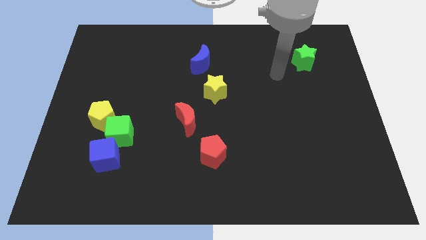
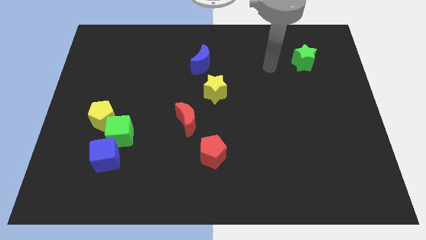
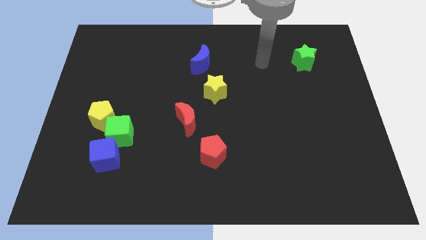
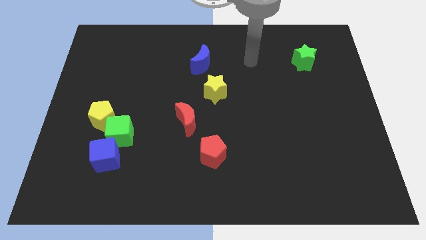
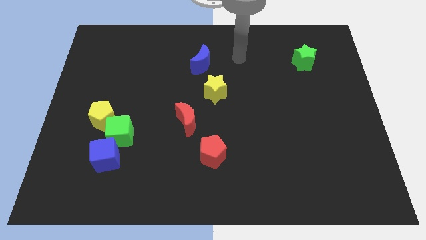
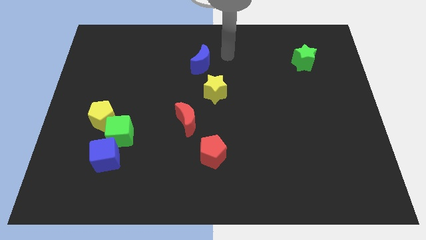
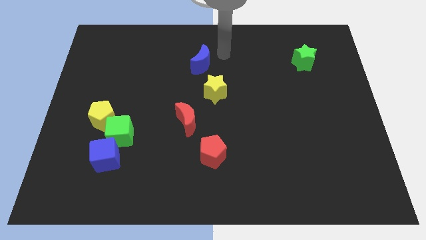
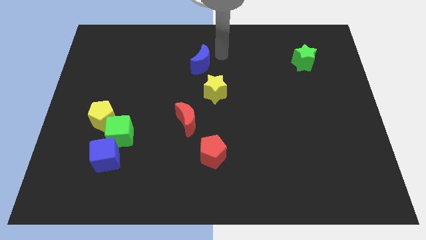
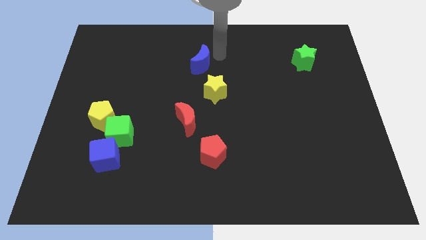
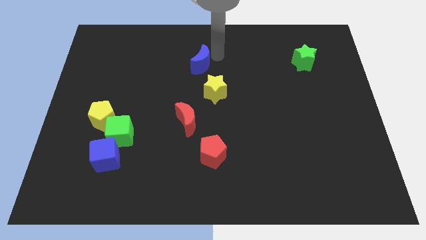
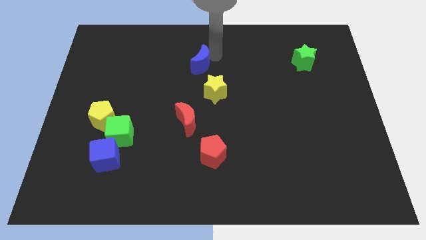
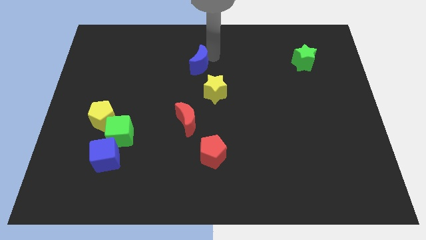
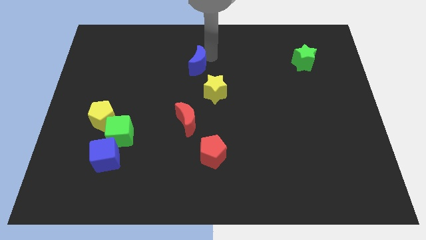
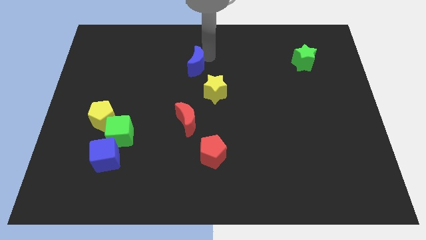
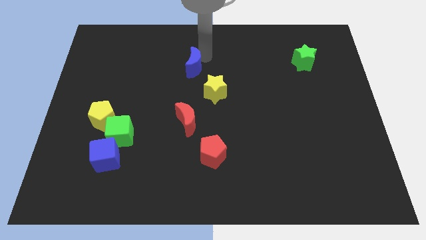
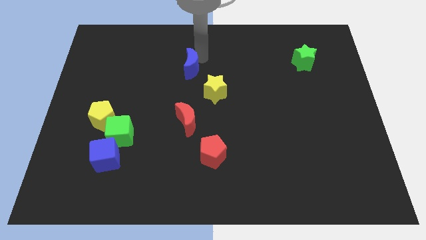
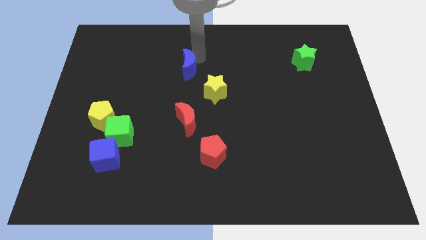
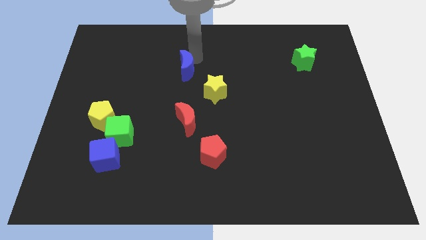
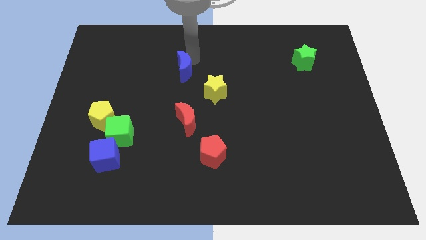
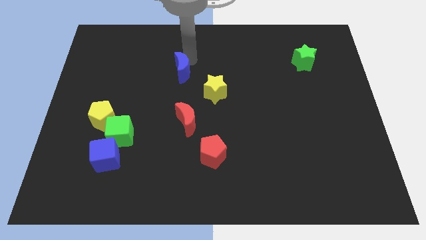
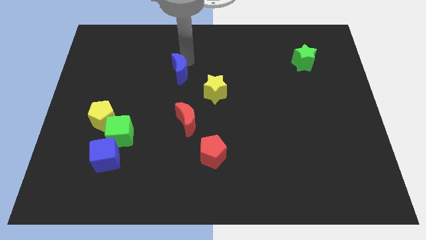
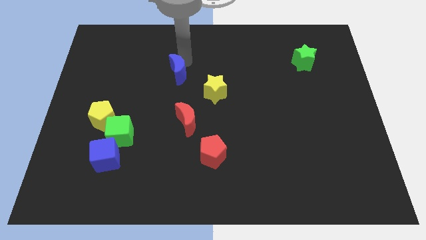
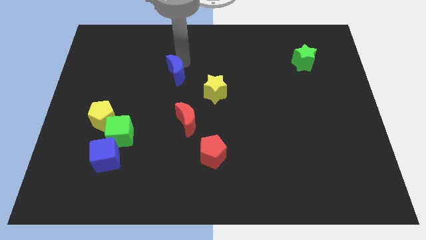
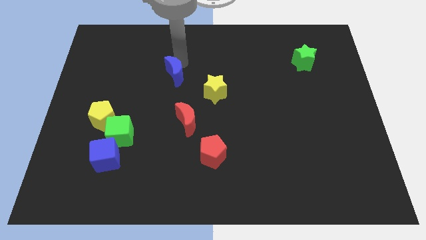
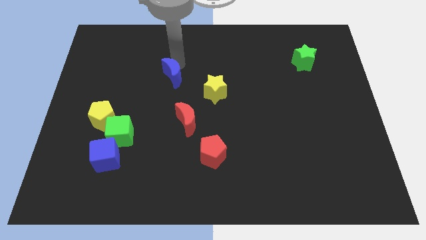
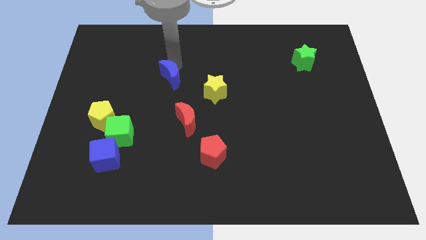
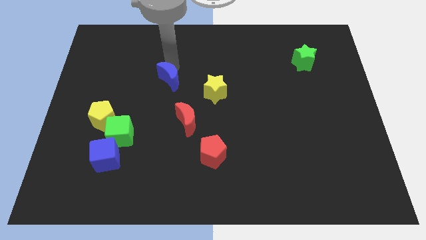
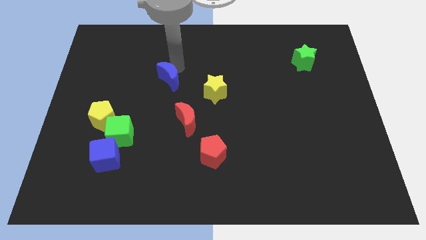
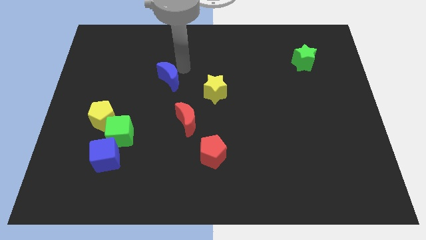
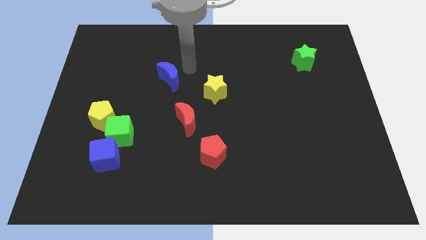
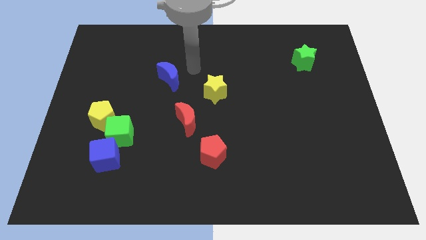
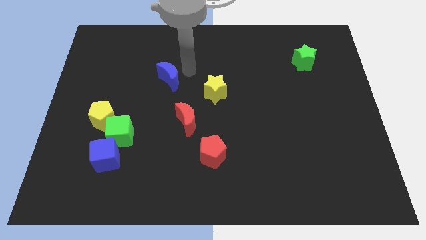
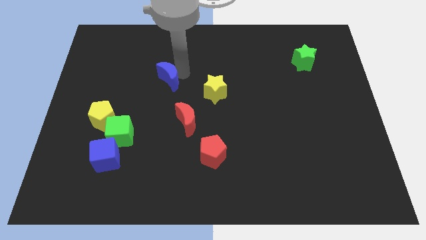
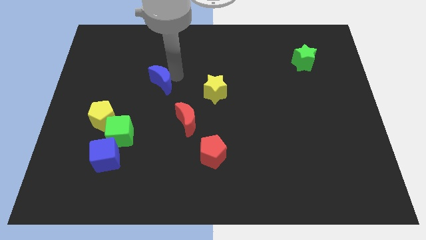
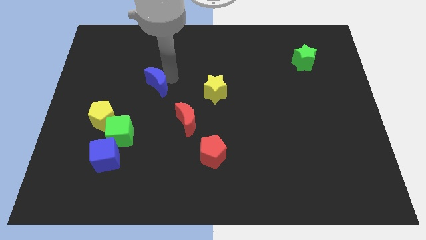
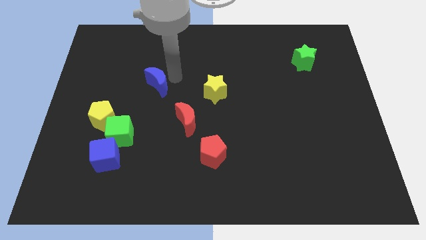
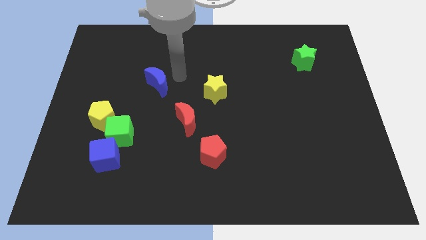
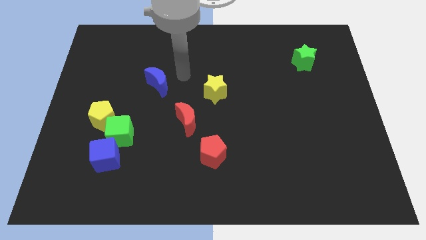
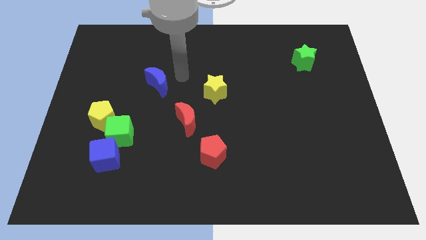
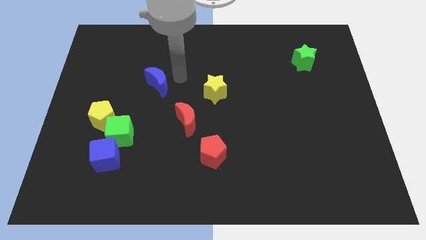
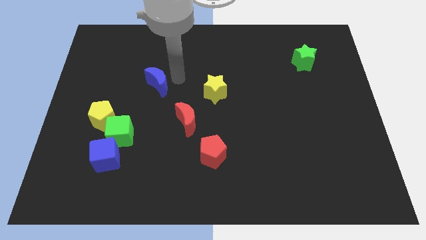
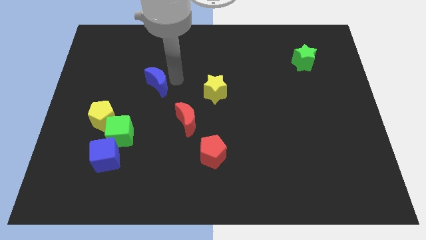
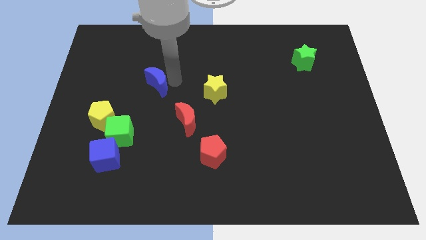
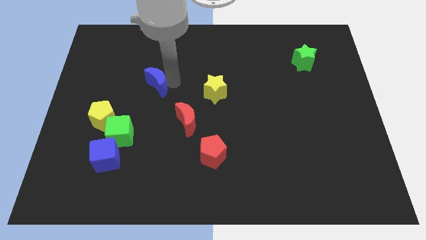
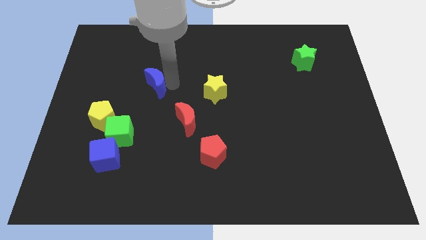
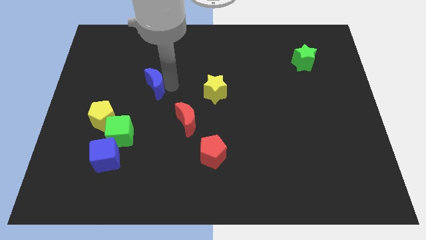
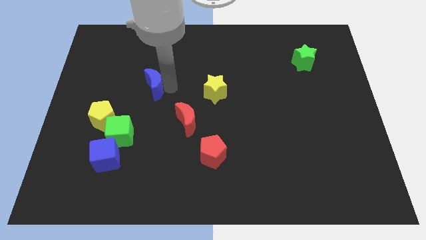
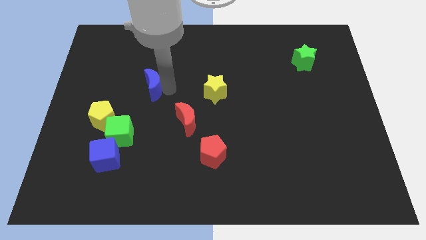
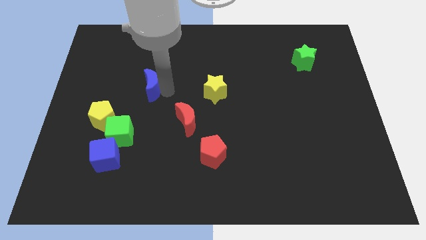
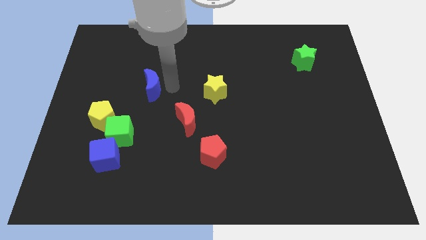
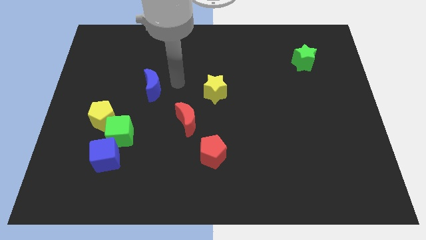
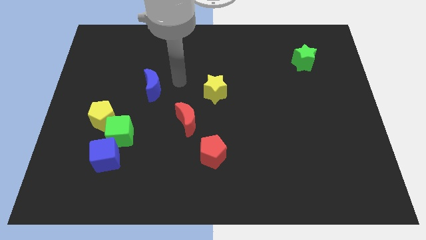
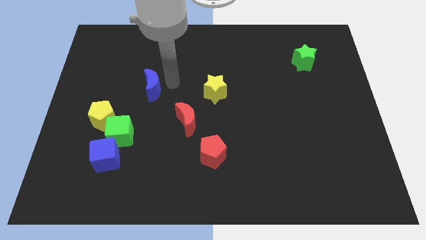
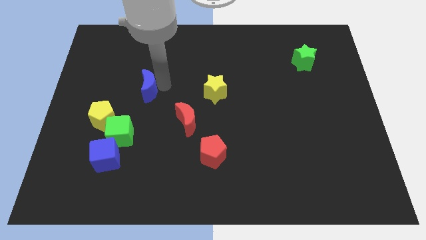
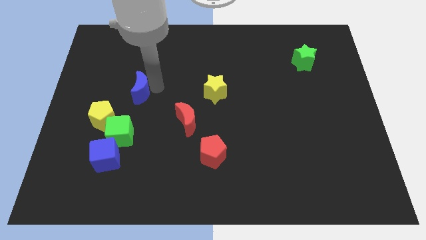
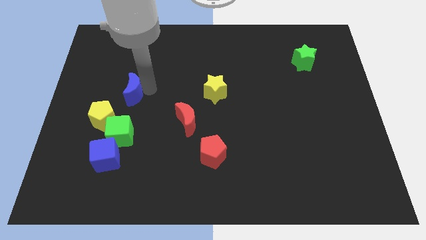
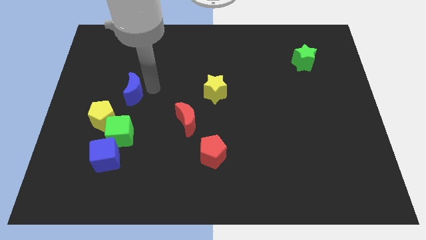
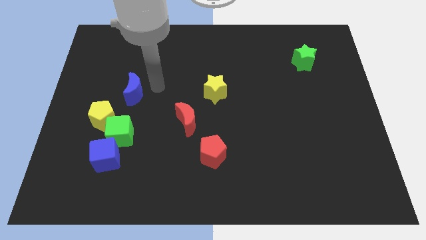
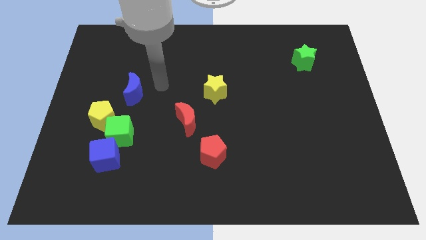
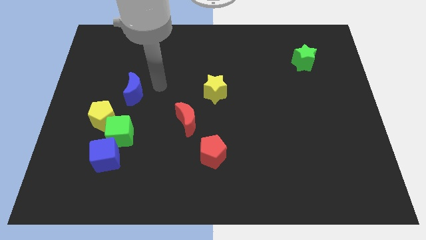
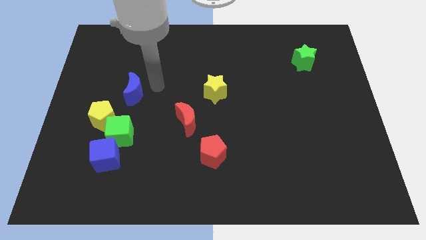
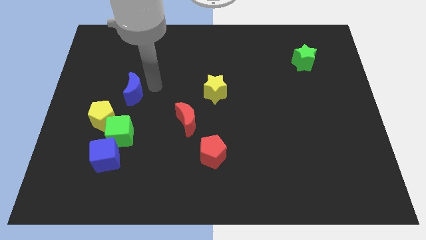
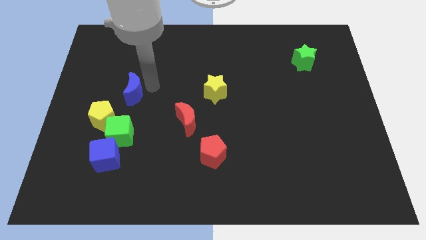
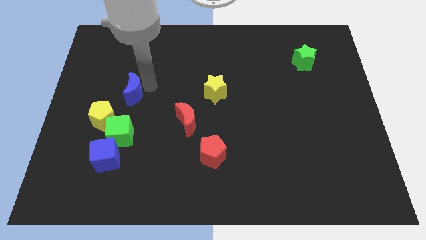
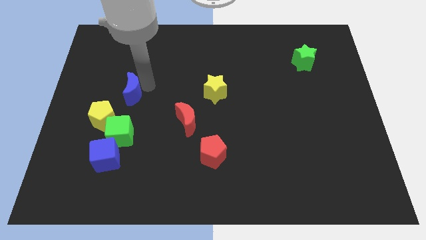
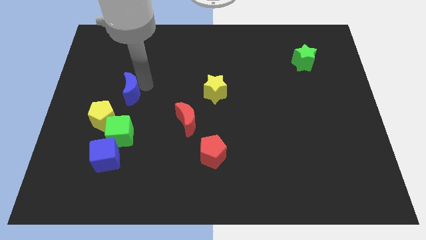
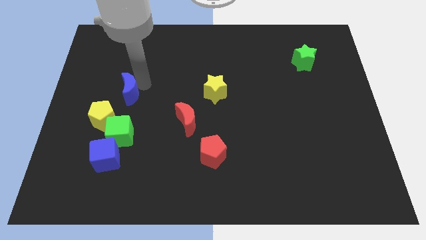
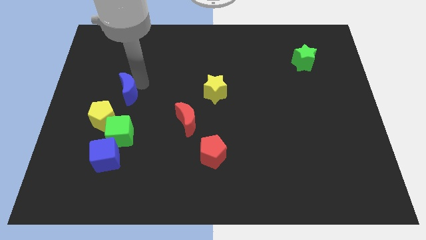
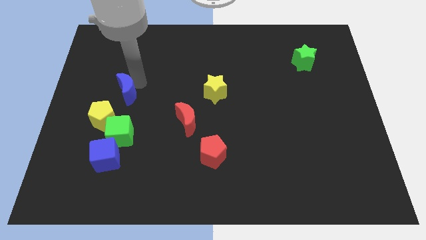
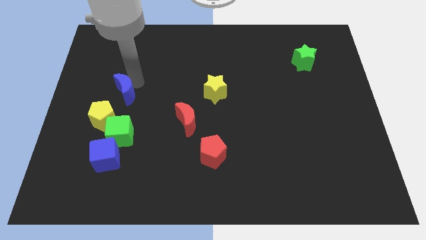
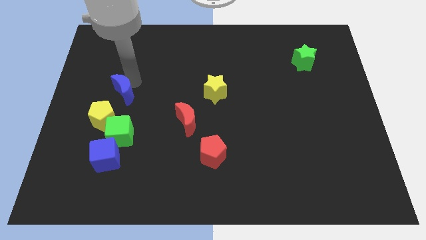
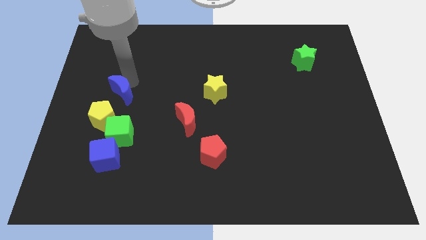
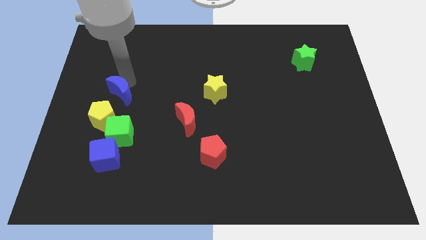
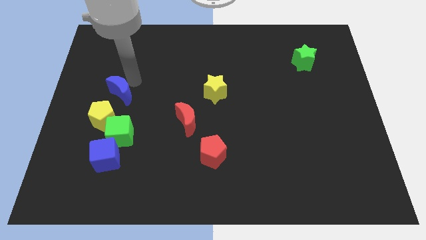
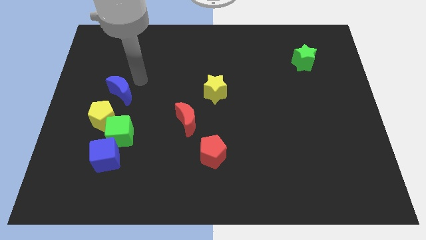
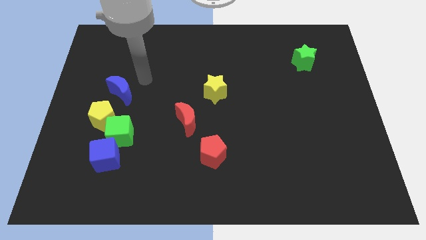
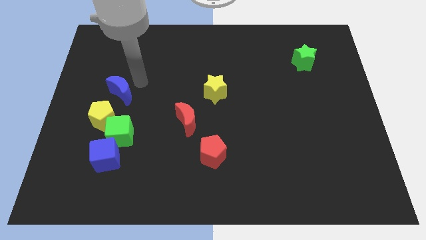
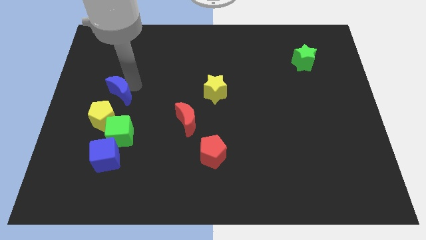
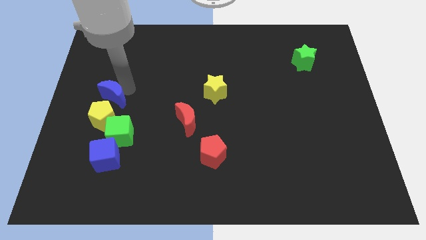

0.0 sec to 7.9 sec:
push the blue moon diagonally down and left

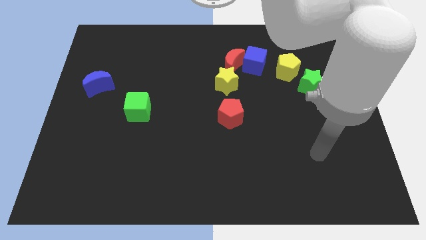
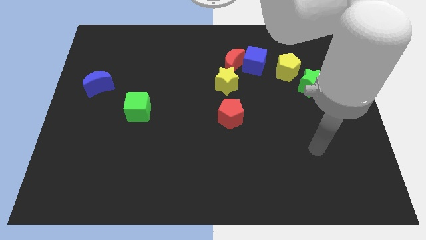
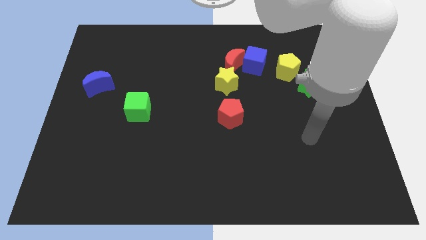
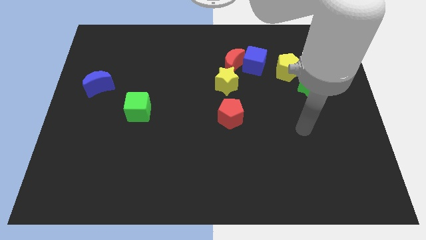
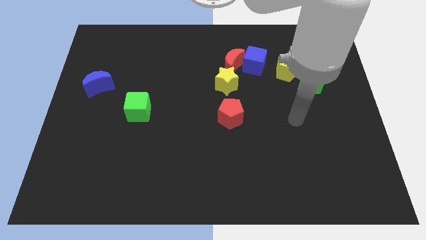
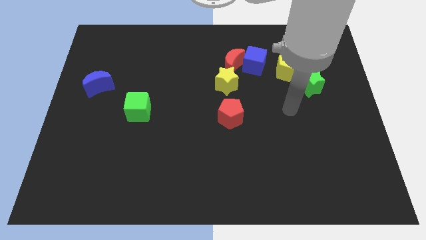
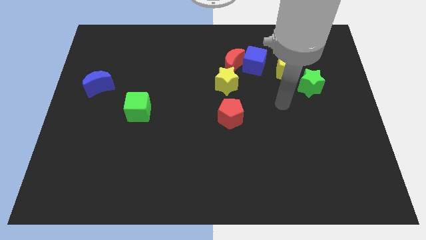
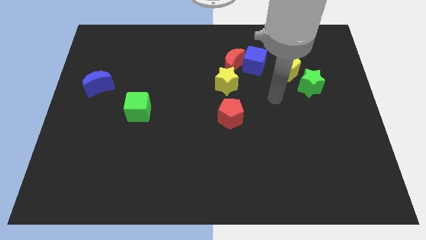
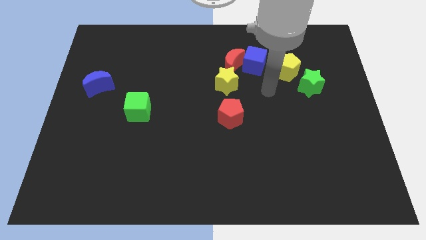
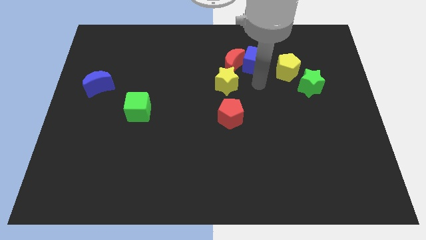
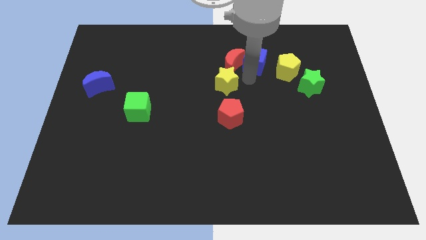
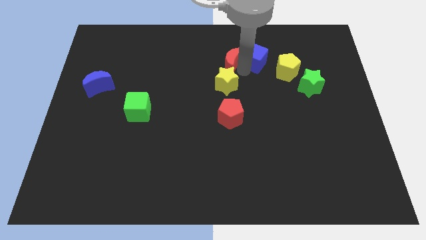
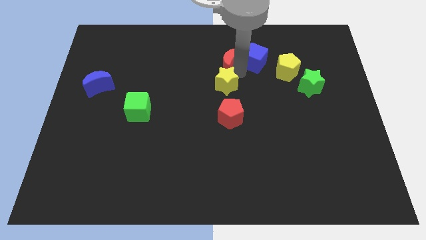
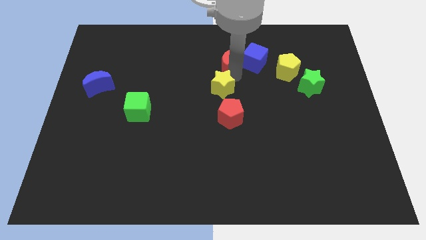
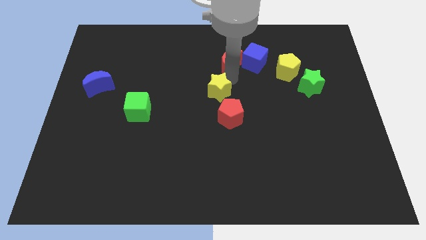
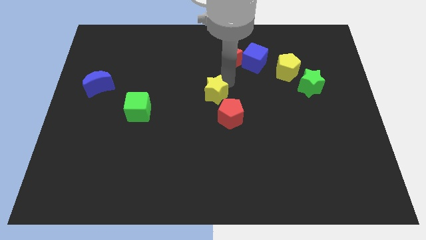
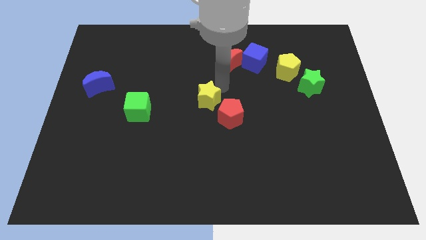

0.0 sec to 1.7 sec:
slightly move the yellow star diagonally downwards and to the left
